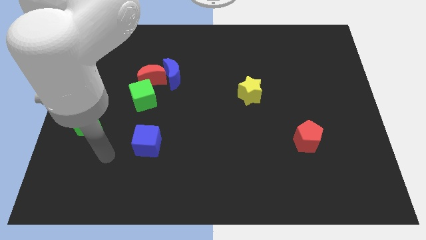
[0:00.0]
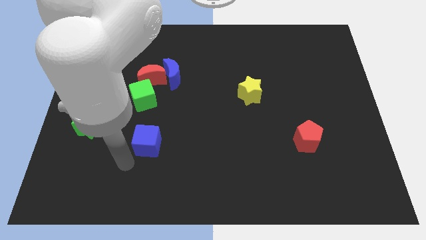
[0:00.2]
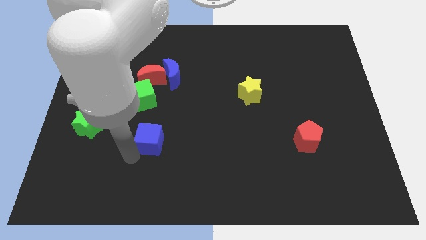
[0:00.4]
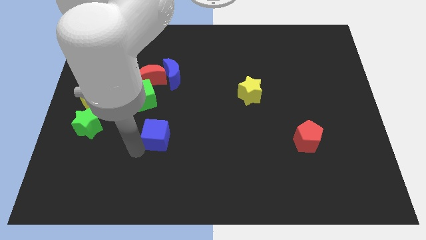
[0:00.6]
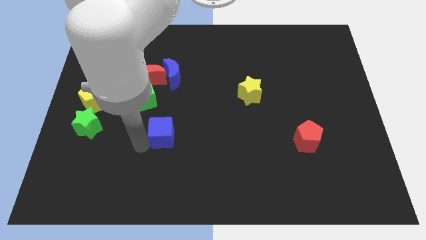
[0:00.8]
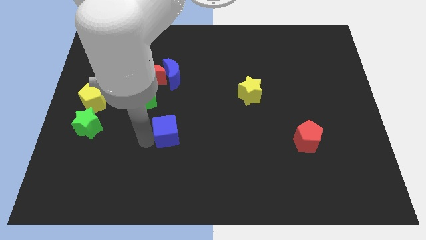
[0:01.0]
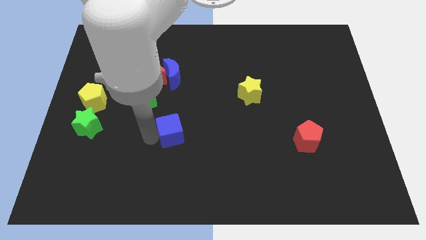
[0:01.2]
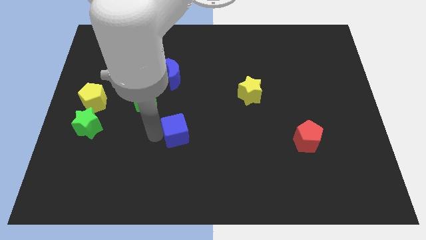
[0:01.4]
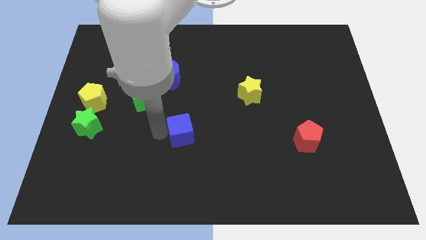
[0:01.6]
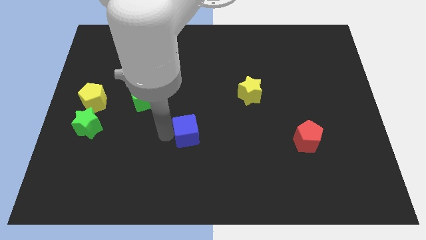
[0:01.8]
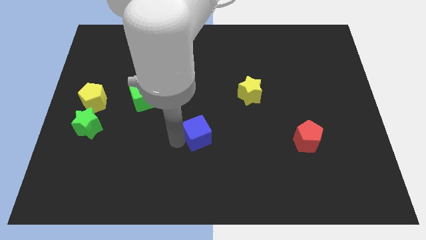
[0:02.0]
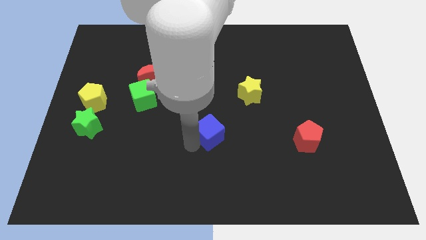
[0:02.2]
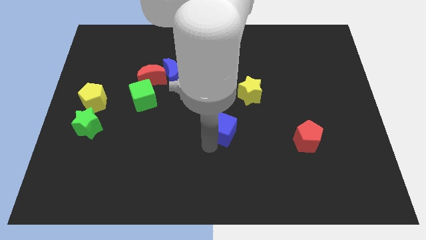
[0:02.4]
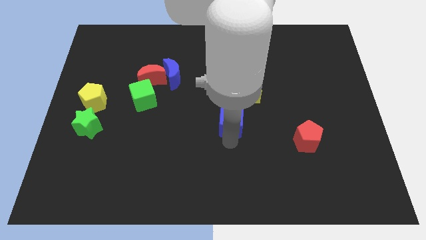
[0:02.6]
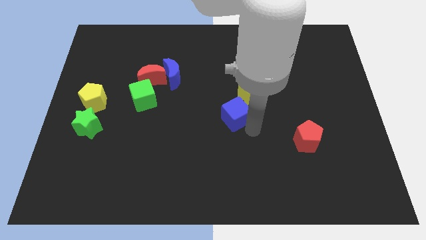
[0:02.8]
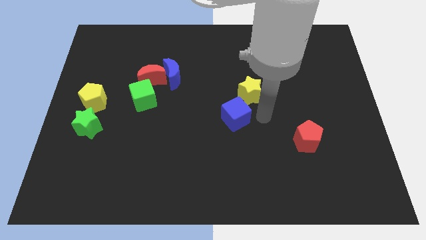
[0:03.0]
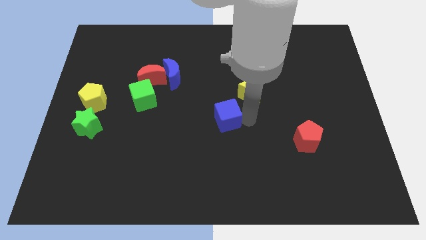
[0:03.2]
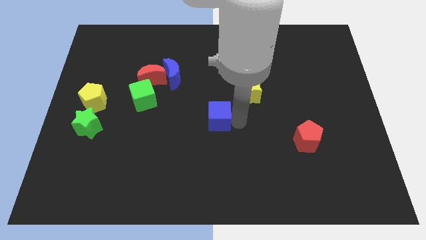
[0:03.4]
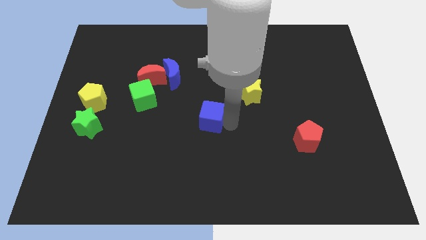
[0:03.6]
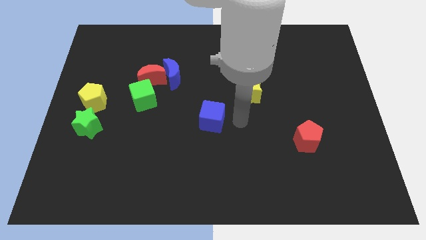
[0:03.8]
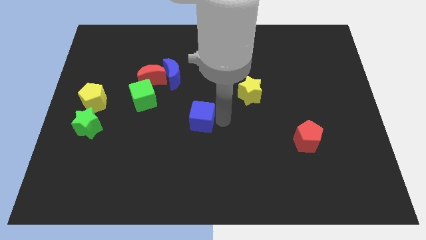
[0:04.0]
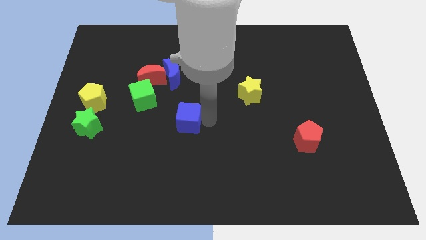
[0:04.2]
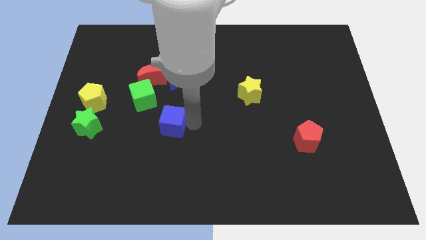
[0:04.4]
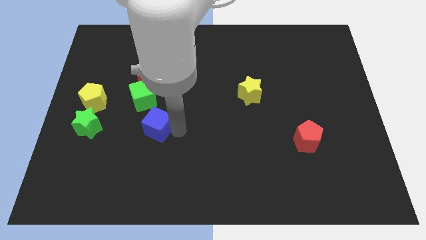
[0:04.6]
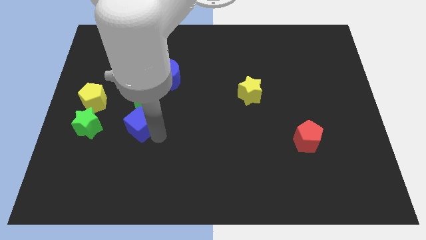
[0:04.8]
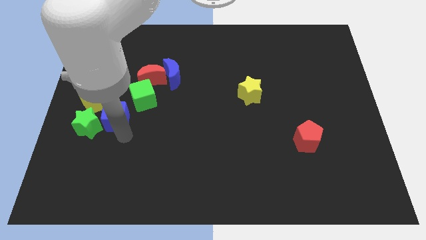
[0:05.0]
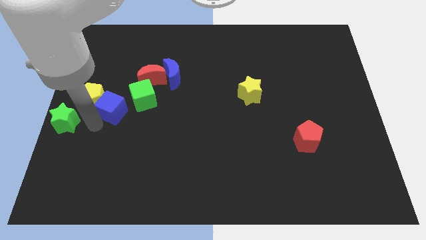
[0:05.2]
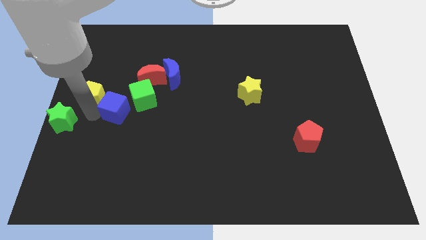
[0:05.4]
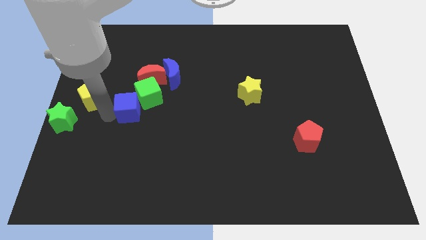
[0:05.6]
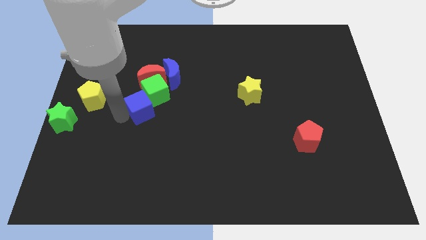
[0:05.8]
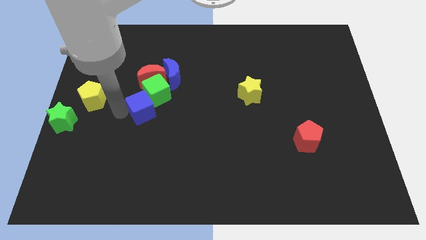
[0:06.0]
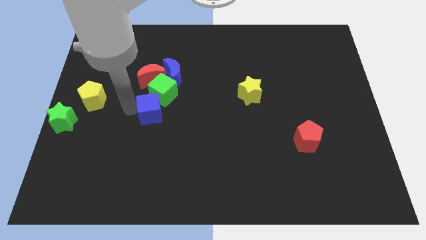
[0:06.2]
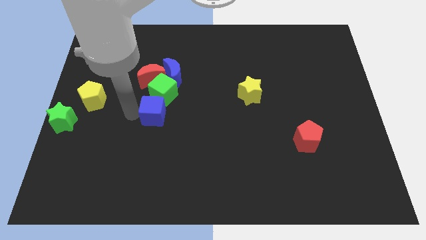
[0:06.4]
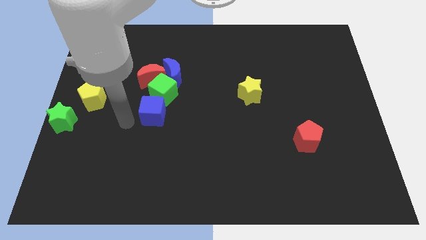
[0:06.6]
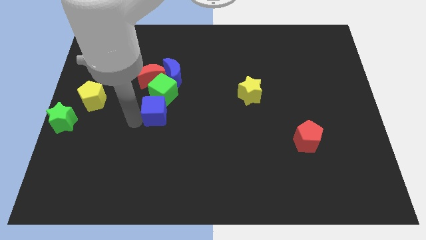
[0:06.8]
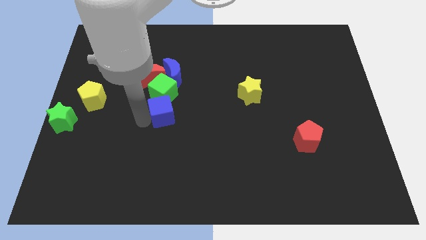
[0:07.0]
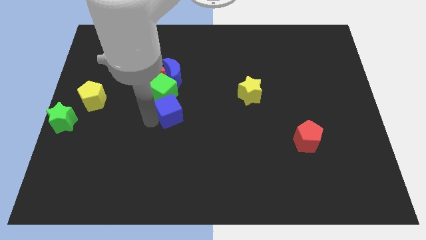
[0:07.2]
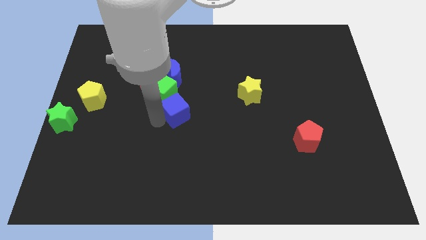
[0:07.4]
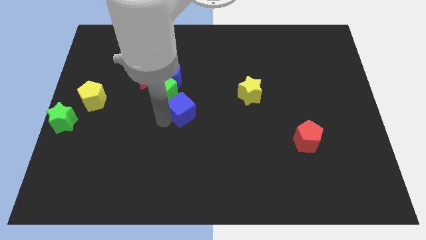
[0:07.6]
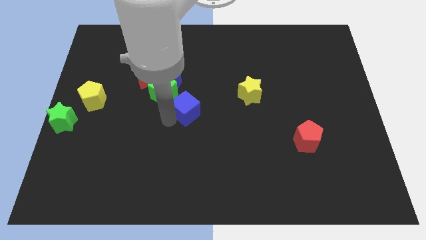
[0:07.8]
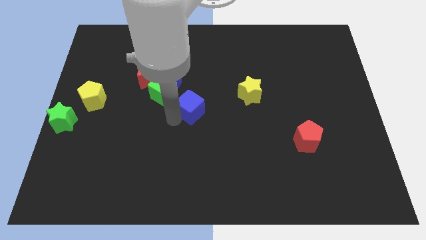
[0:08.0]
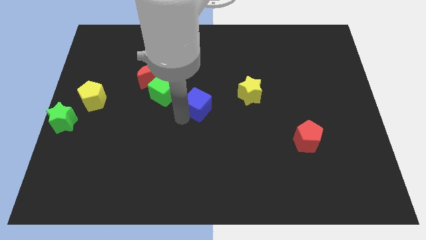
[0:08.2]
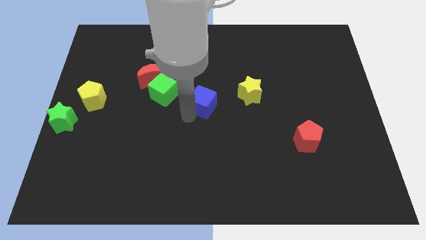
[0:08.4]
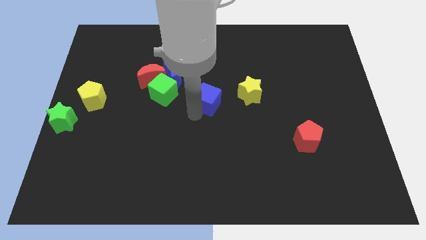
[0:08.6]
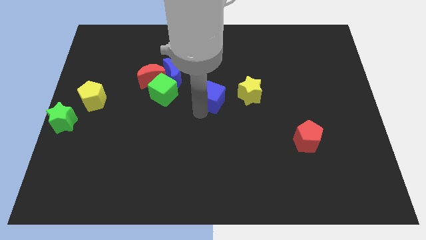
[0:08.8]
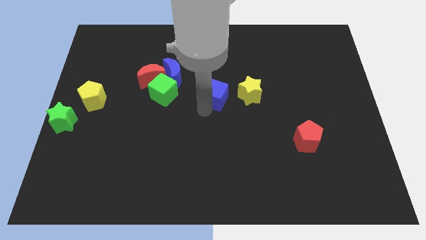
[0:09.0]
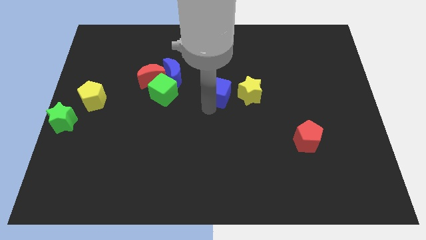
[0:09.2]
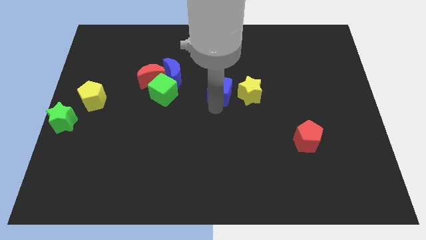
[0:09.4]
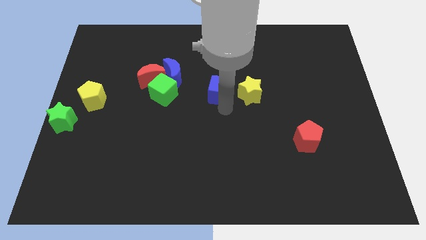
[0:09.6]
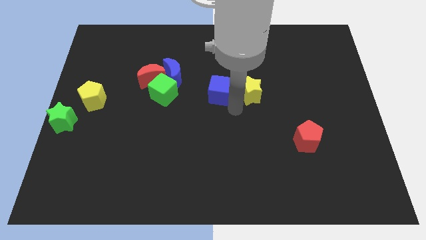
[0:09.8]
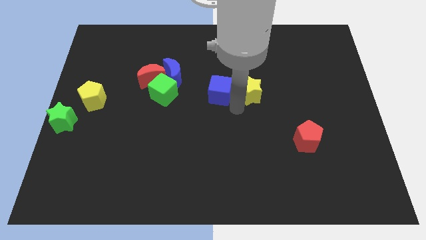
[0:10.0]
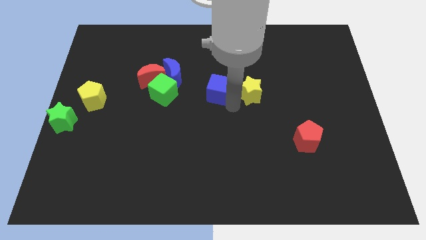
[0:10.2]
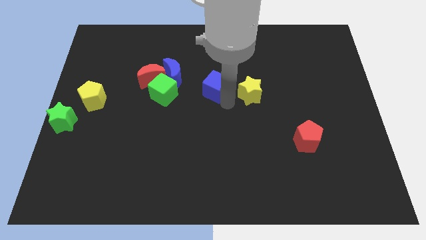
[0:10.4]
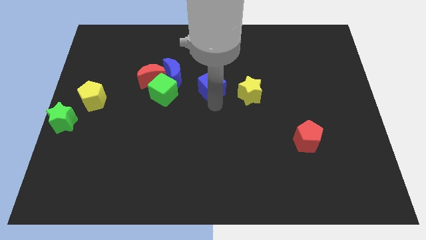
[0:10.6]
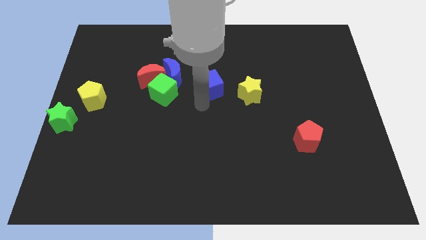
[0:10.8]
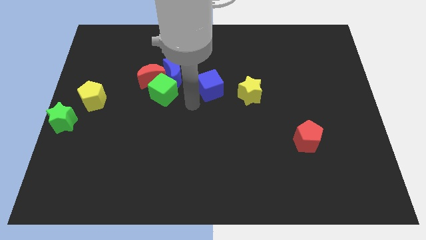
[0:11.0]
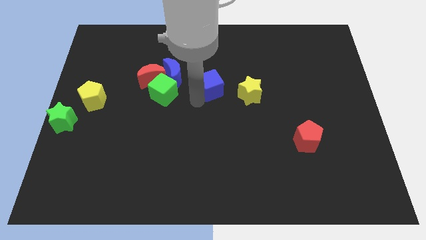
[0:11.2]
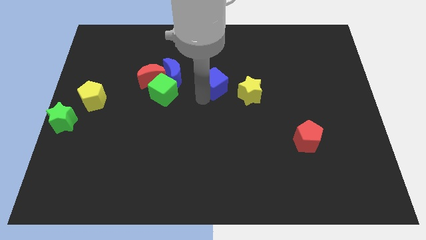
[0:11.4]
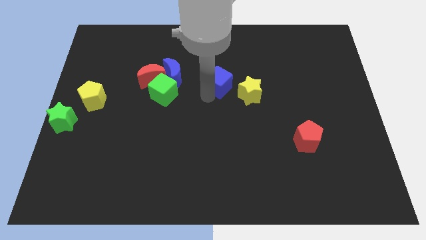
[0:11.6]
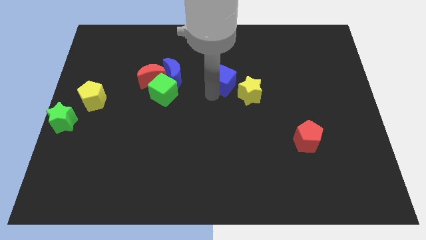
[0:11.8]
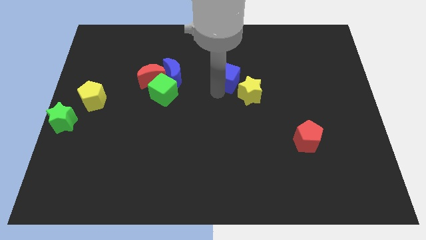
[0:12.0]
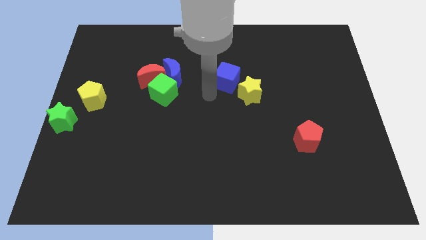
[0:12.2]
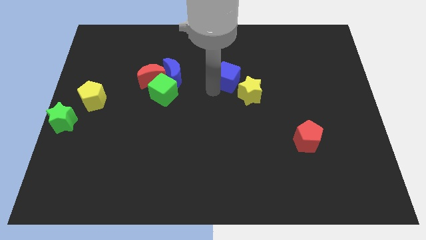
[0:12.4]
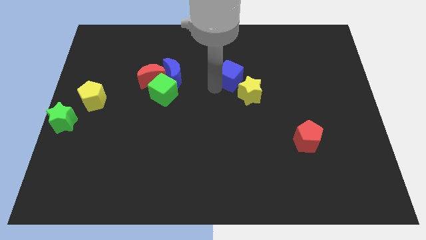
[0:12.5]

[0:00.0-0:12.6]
push the blue cube to the top side of the yellow star
